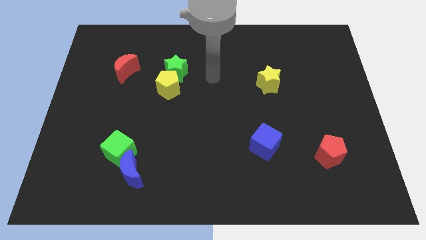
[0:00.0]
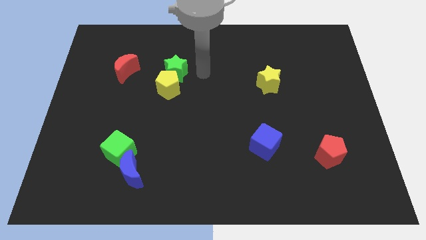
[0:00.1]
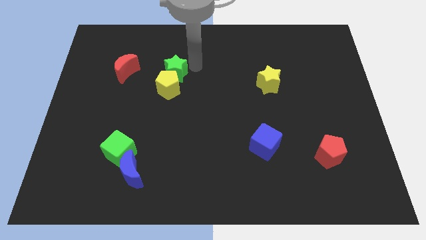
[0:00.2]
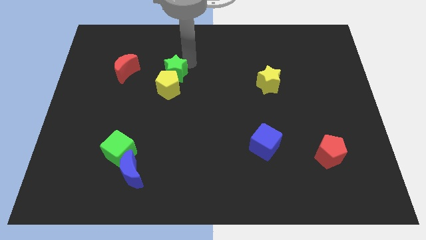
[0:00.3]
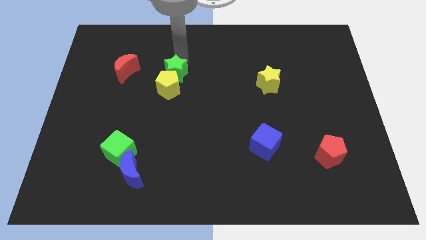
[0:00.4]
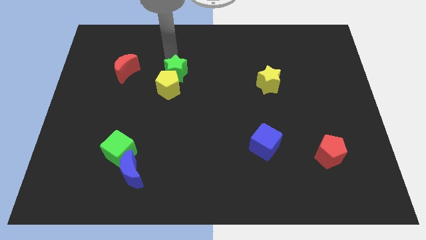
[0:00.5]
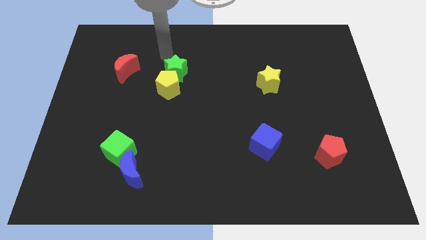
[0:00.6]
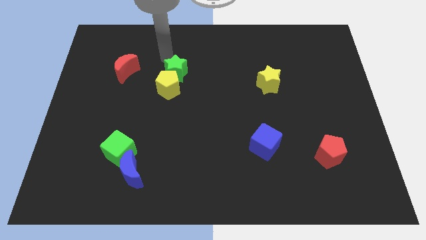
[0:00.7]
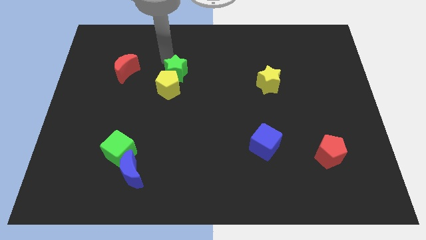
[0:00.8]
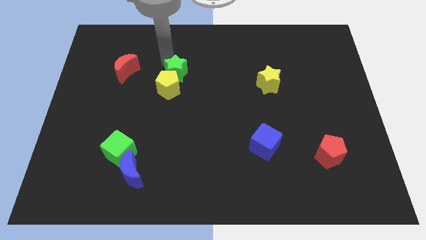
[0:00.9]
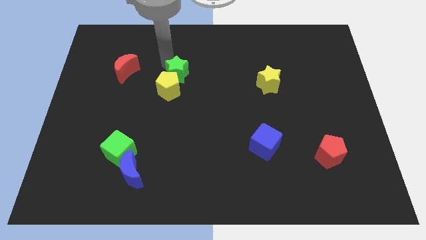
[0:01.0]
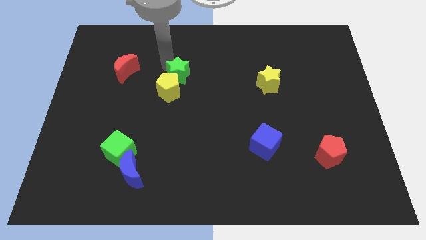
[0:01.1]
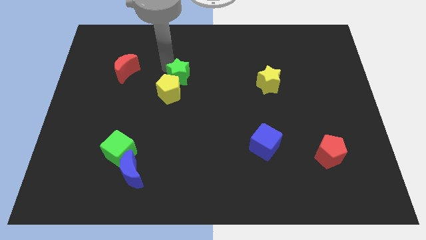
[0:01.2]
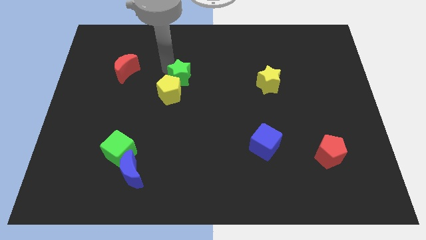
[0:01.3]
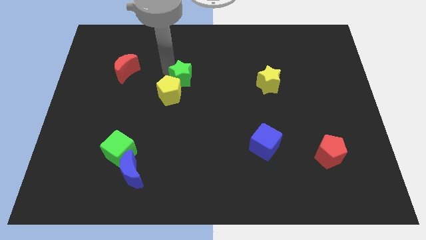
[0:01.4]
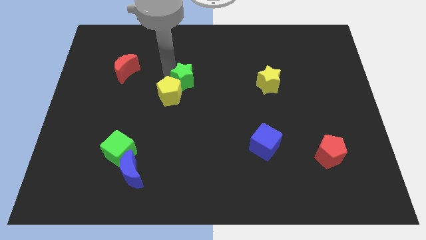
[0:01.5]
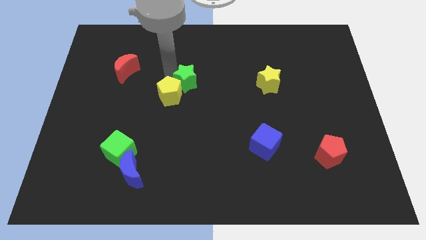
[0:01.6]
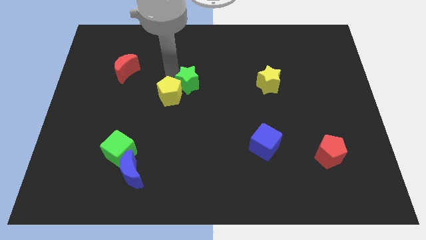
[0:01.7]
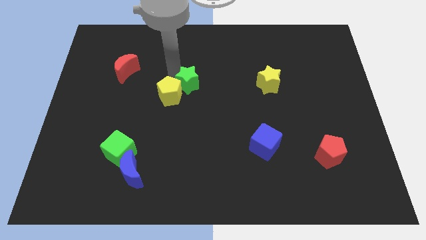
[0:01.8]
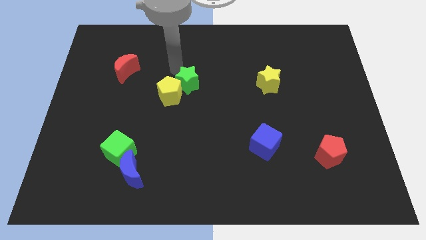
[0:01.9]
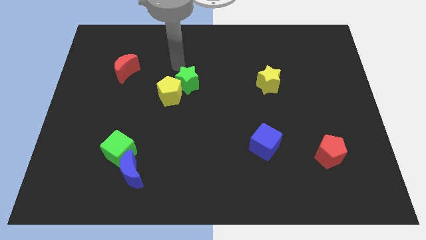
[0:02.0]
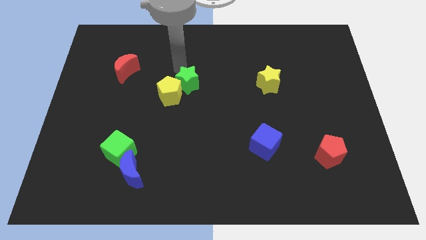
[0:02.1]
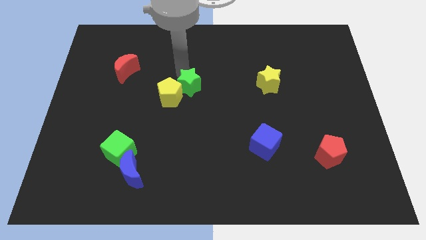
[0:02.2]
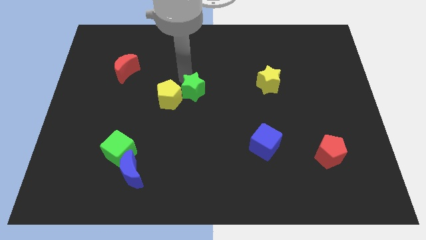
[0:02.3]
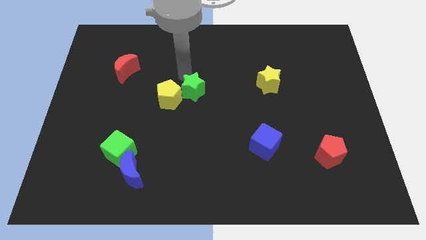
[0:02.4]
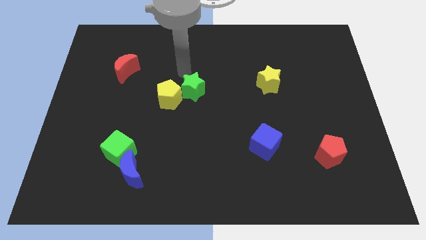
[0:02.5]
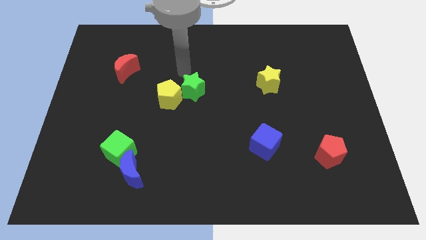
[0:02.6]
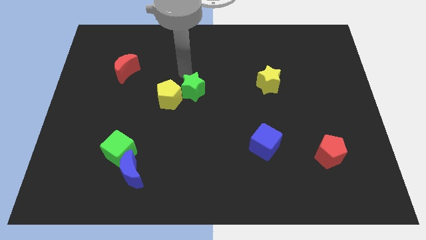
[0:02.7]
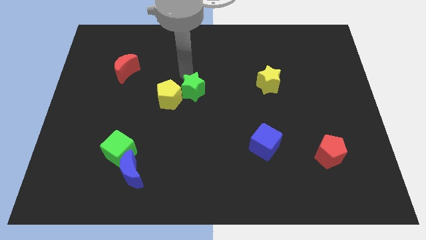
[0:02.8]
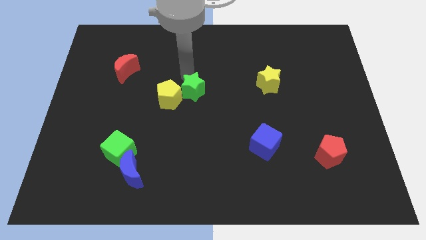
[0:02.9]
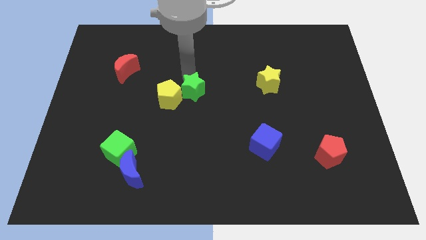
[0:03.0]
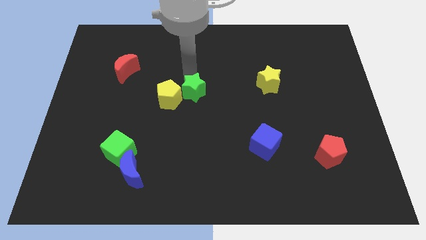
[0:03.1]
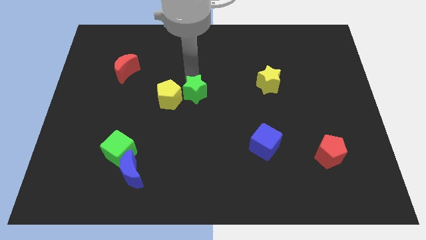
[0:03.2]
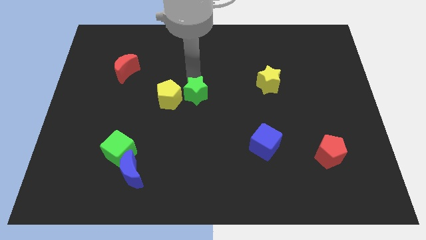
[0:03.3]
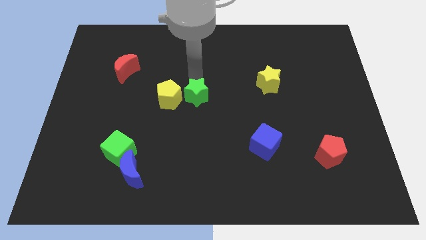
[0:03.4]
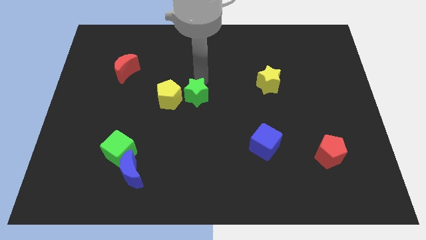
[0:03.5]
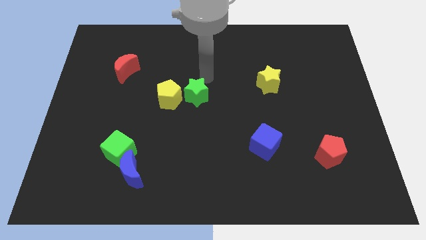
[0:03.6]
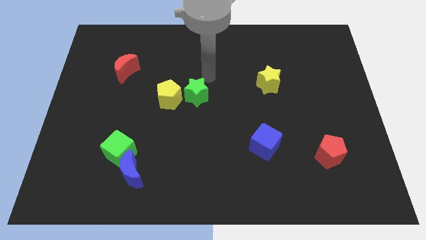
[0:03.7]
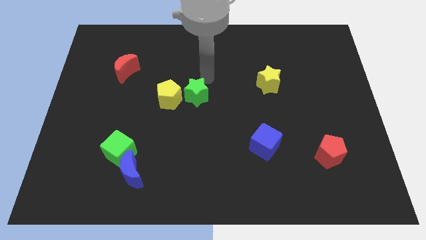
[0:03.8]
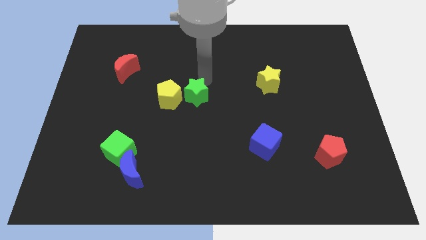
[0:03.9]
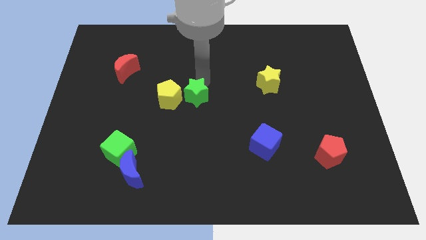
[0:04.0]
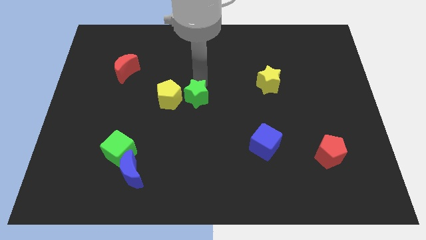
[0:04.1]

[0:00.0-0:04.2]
move the green star downwards a little

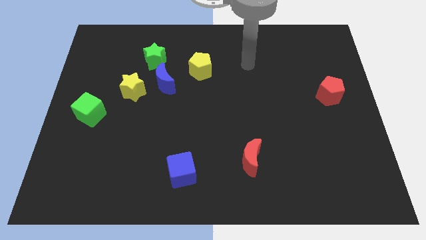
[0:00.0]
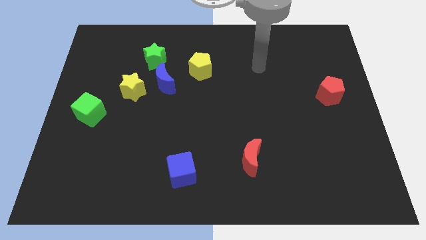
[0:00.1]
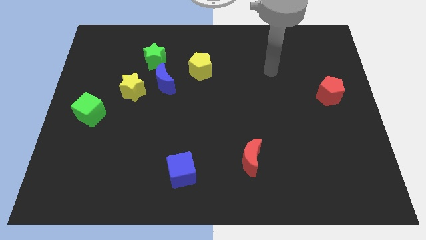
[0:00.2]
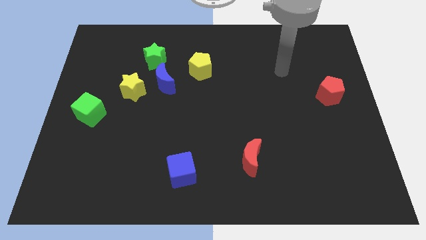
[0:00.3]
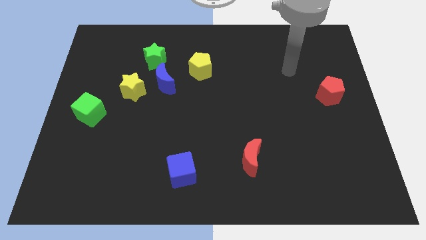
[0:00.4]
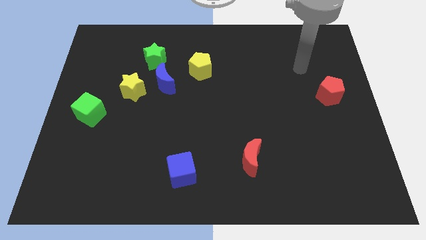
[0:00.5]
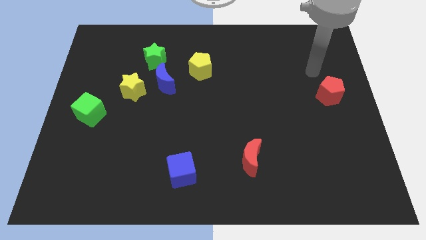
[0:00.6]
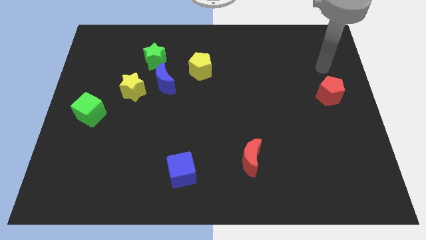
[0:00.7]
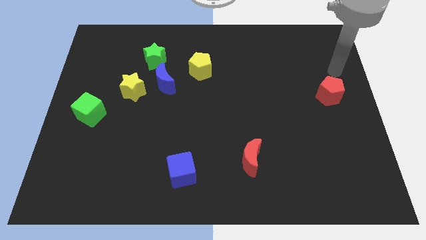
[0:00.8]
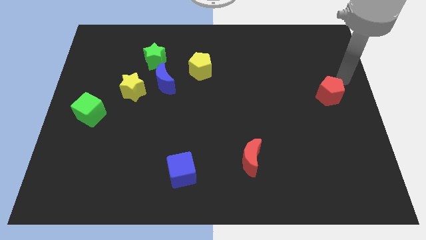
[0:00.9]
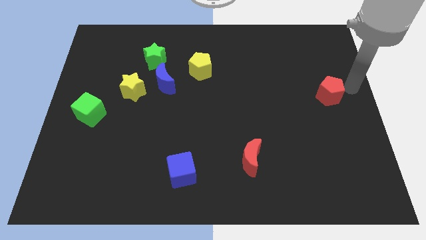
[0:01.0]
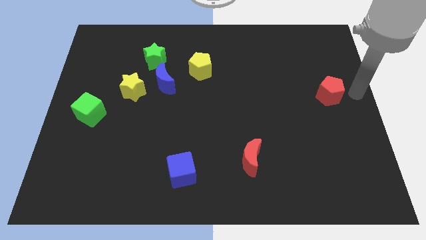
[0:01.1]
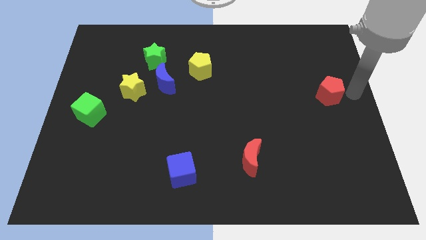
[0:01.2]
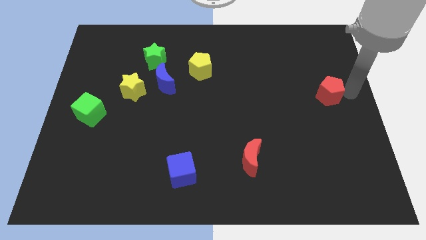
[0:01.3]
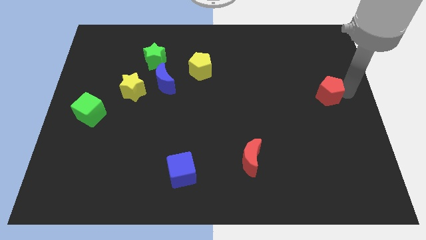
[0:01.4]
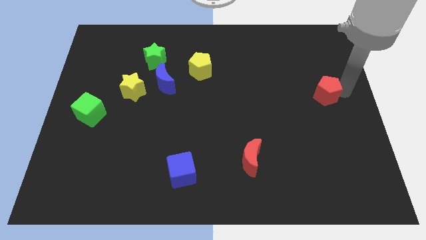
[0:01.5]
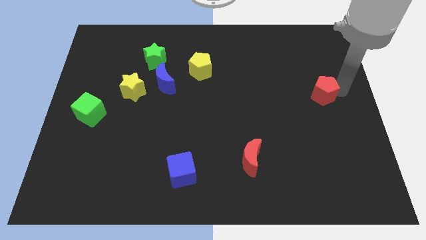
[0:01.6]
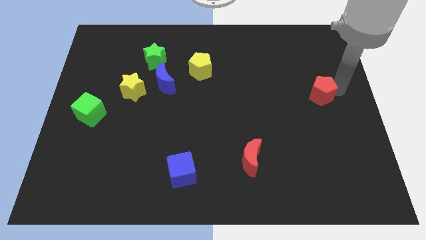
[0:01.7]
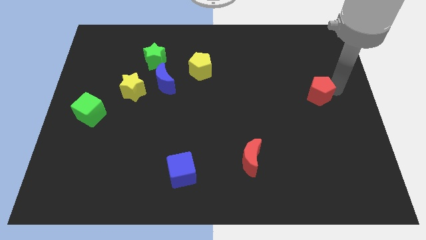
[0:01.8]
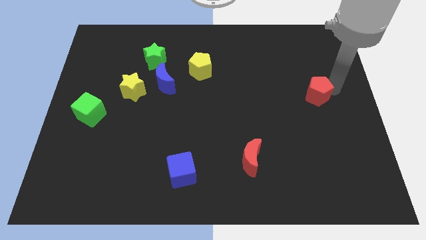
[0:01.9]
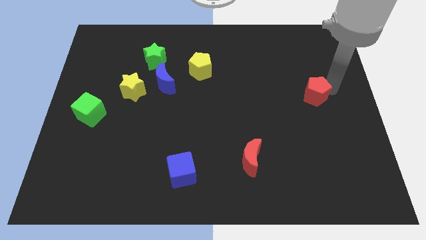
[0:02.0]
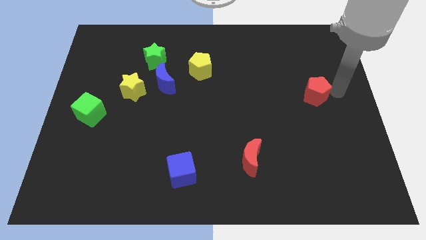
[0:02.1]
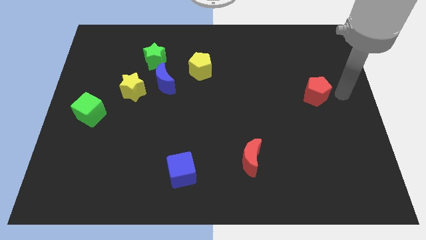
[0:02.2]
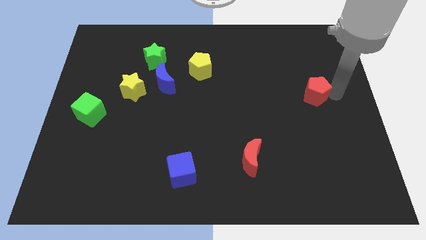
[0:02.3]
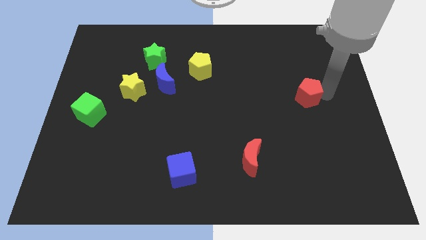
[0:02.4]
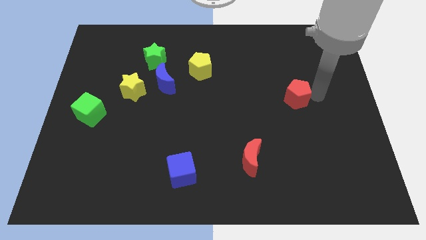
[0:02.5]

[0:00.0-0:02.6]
push the red pentagon left a bit

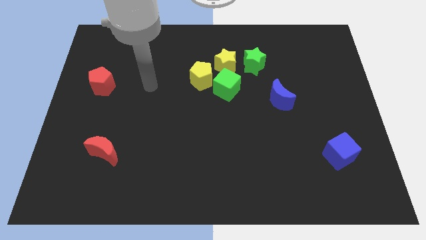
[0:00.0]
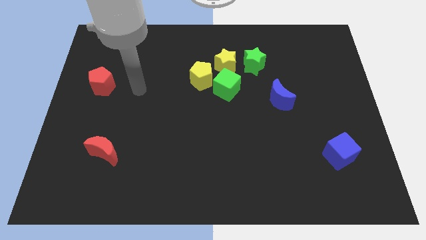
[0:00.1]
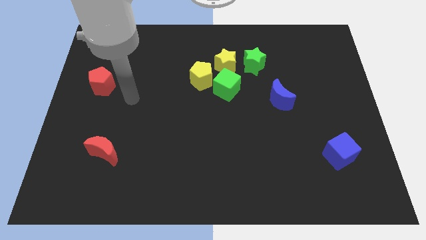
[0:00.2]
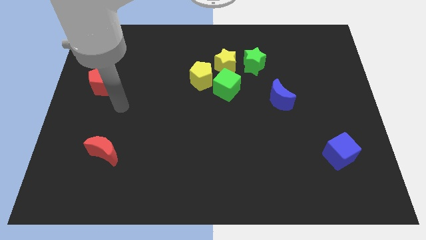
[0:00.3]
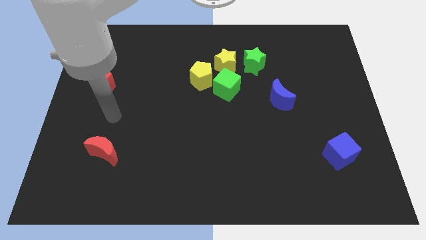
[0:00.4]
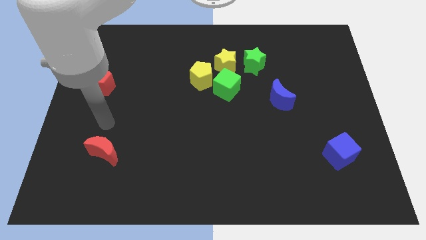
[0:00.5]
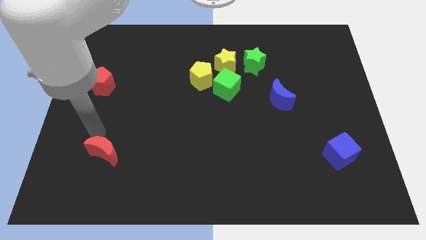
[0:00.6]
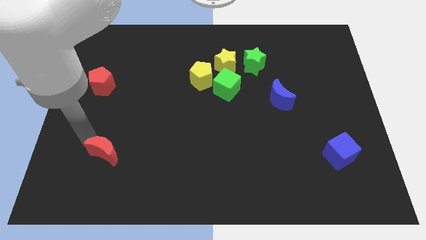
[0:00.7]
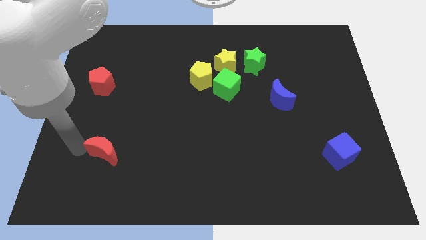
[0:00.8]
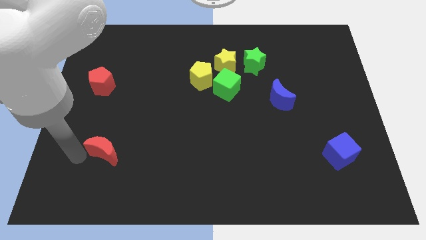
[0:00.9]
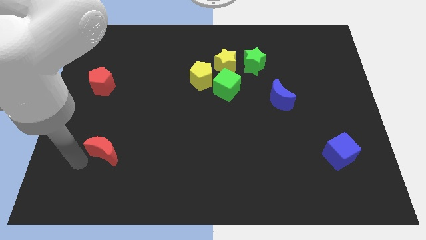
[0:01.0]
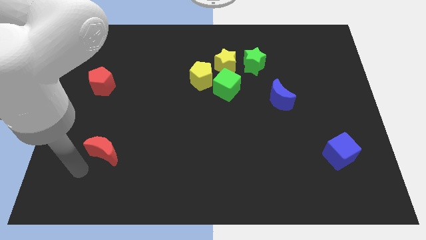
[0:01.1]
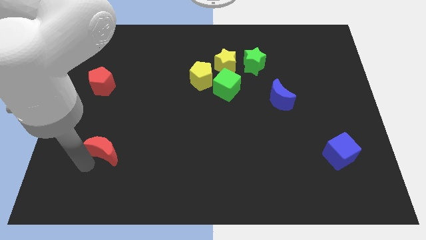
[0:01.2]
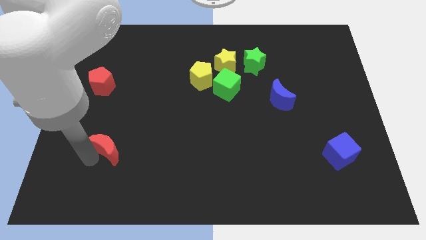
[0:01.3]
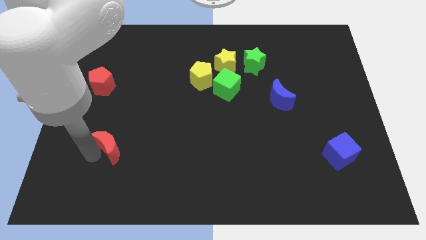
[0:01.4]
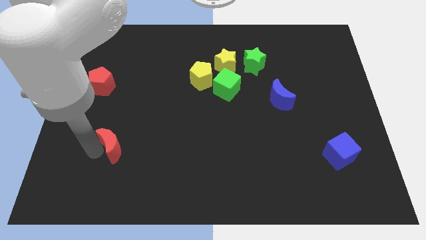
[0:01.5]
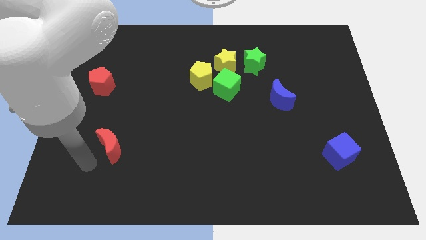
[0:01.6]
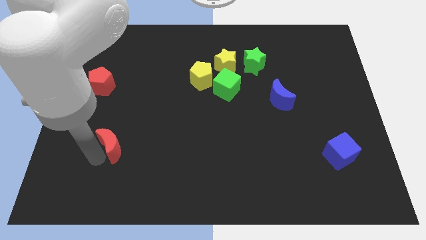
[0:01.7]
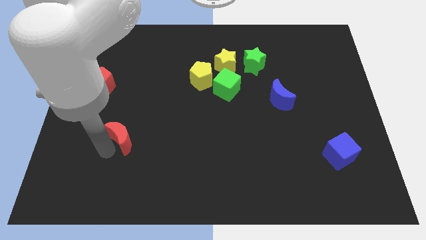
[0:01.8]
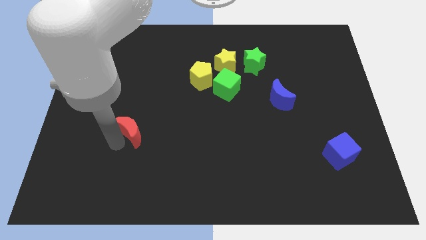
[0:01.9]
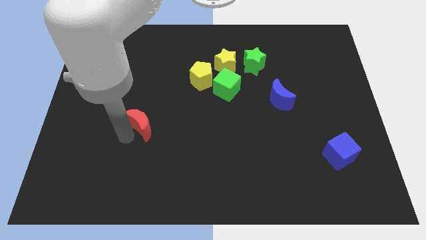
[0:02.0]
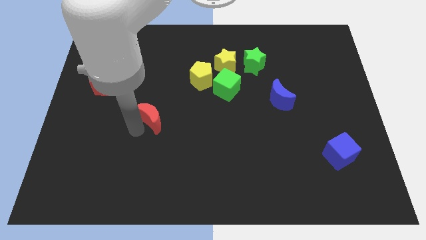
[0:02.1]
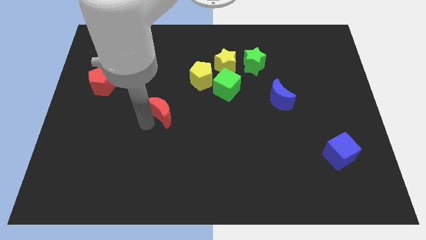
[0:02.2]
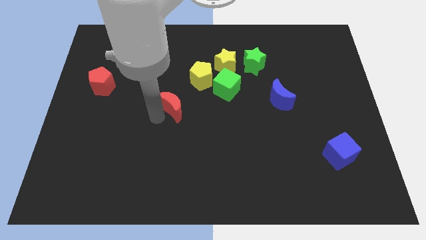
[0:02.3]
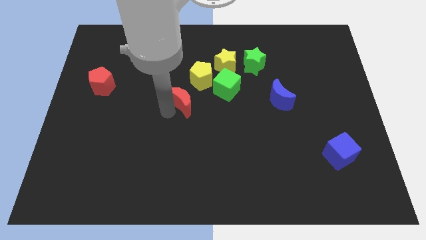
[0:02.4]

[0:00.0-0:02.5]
move the red moon upwards and right diagonally
